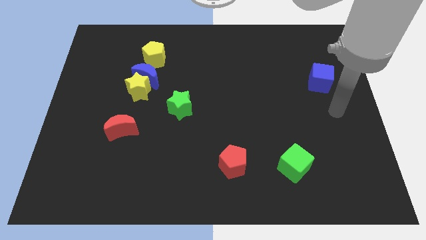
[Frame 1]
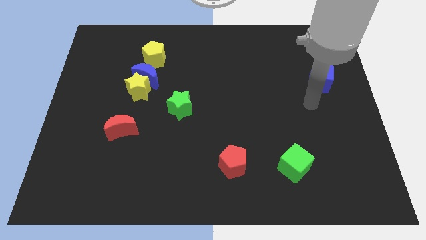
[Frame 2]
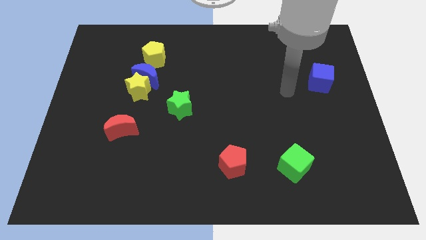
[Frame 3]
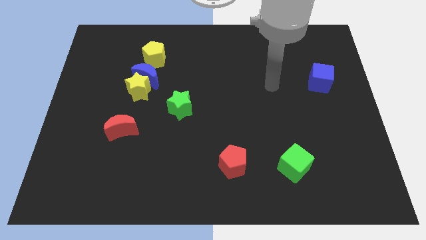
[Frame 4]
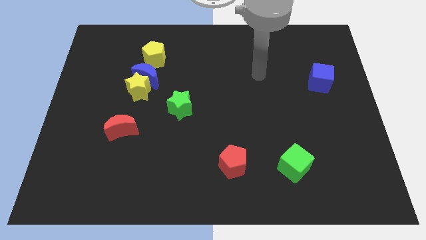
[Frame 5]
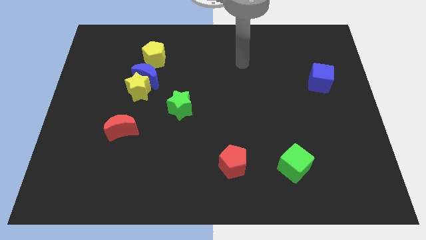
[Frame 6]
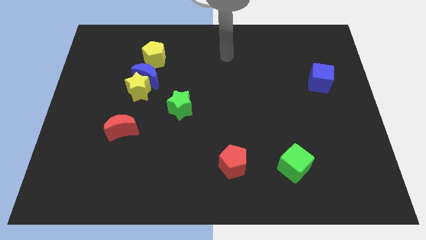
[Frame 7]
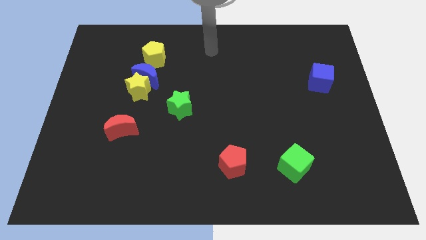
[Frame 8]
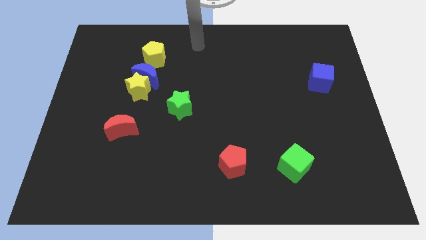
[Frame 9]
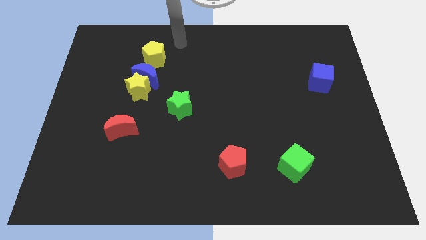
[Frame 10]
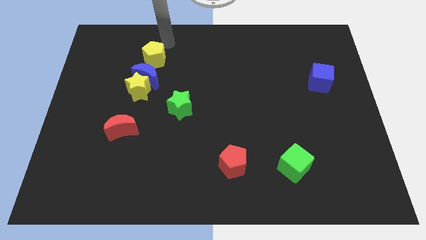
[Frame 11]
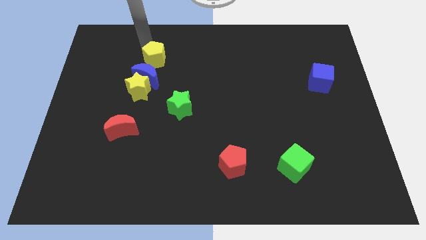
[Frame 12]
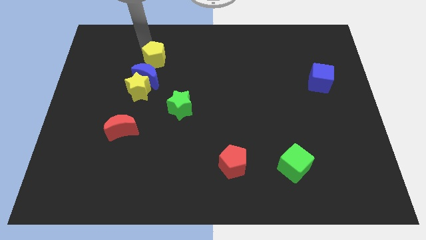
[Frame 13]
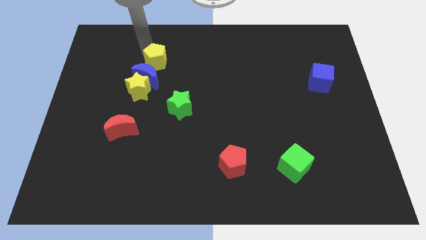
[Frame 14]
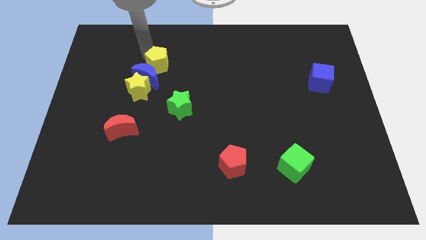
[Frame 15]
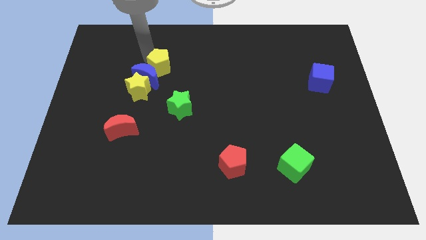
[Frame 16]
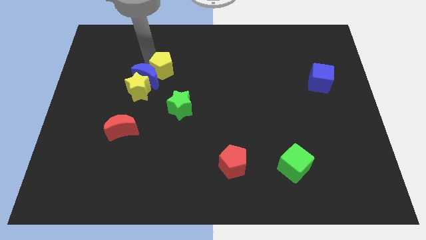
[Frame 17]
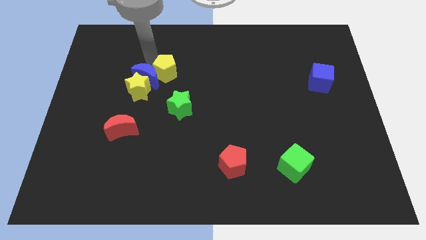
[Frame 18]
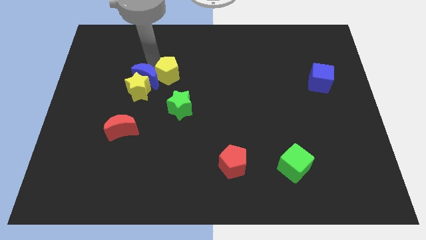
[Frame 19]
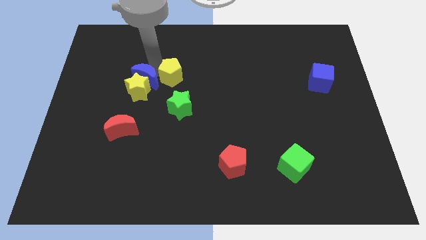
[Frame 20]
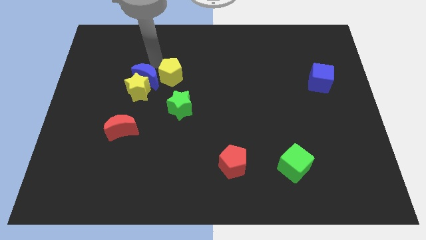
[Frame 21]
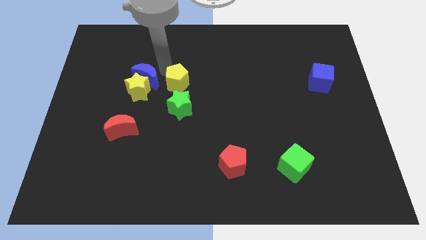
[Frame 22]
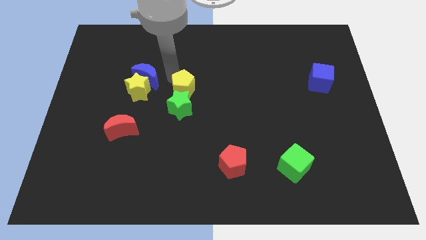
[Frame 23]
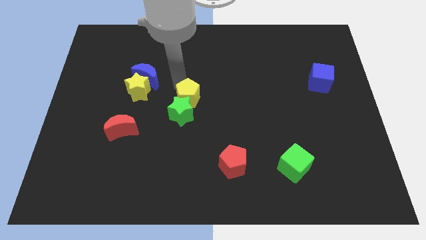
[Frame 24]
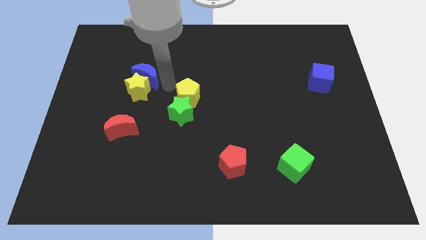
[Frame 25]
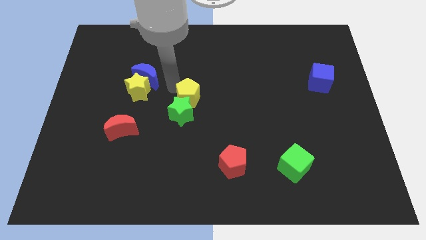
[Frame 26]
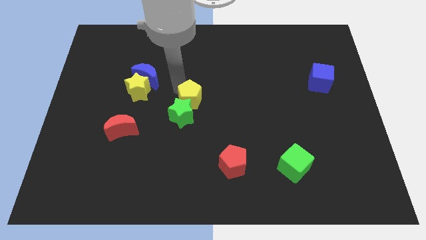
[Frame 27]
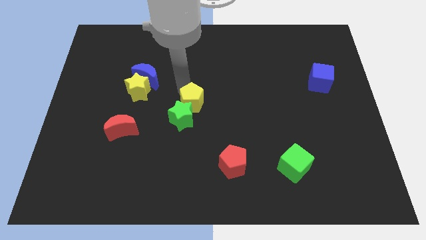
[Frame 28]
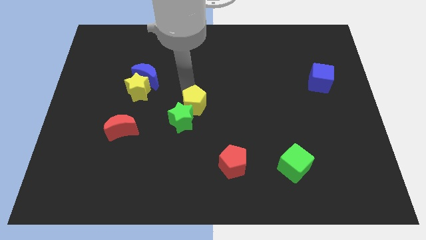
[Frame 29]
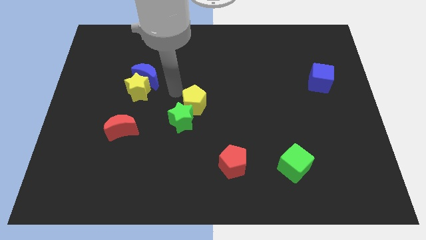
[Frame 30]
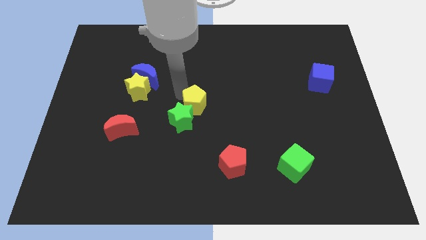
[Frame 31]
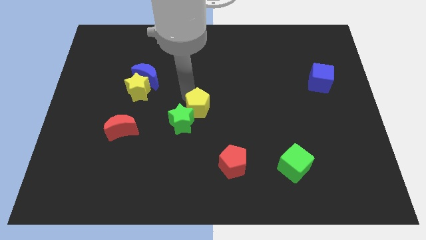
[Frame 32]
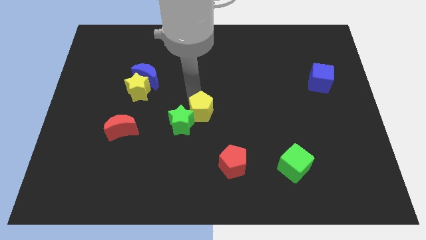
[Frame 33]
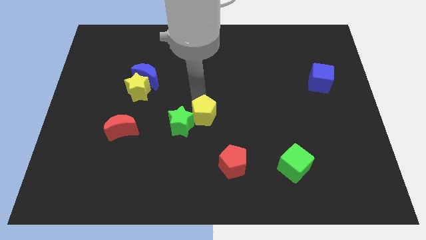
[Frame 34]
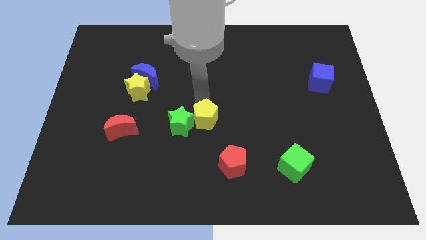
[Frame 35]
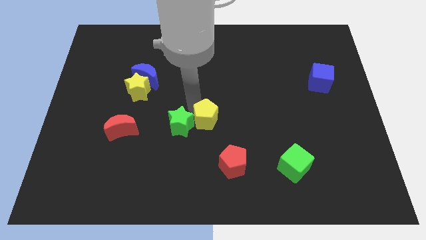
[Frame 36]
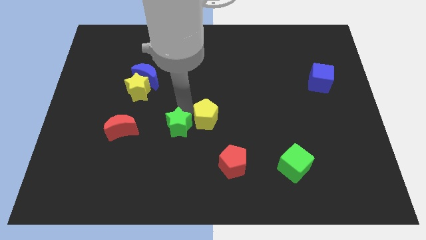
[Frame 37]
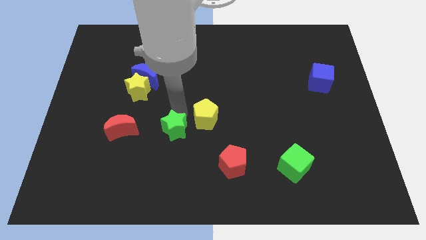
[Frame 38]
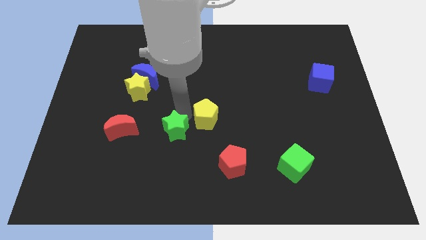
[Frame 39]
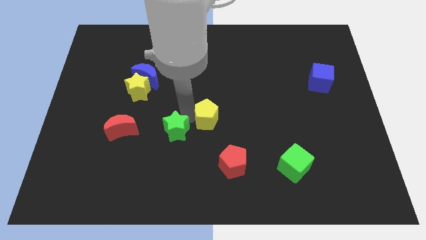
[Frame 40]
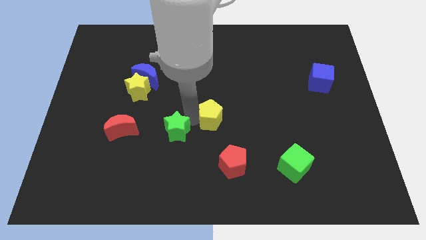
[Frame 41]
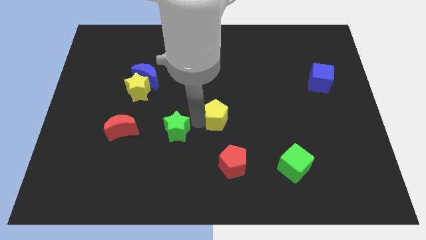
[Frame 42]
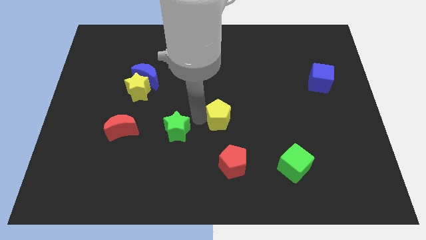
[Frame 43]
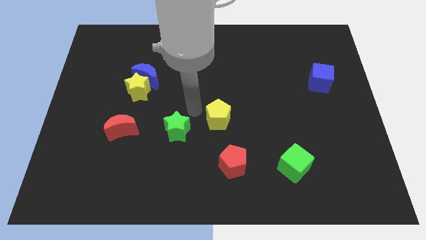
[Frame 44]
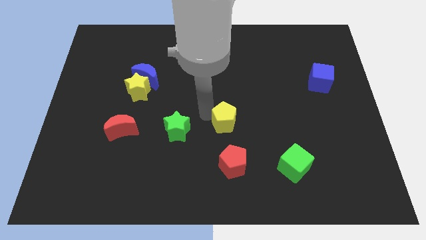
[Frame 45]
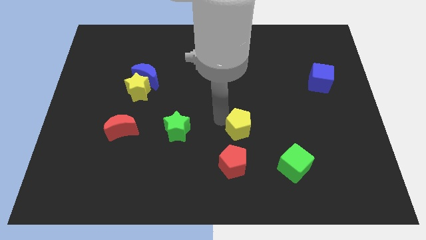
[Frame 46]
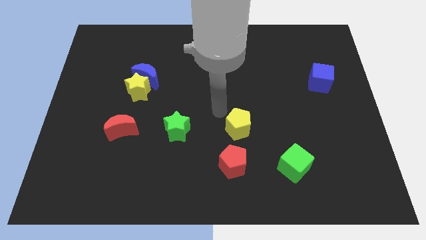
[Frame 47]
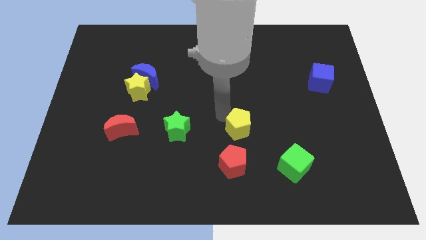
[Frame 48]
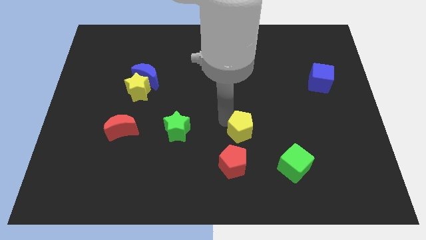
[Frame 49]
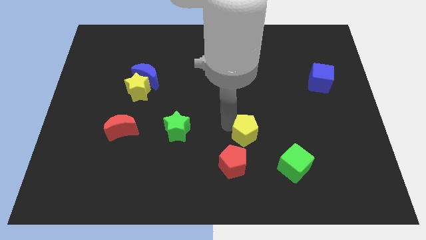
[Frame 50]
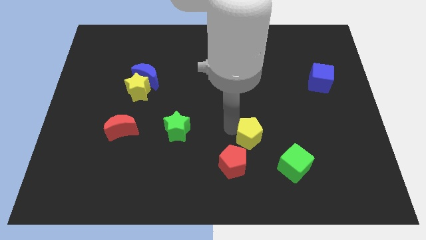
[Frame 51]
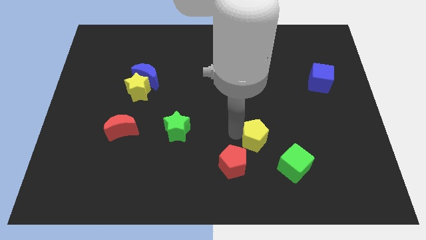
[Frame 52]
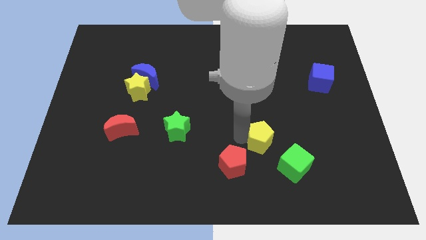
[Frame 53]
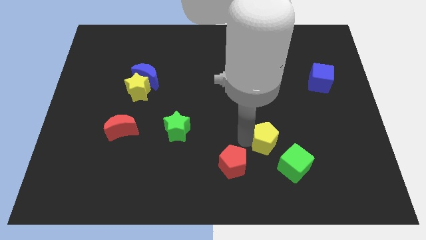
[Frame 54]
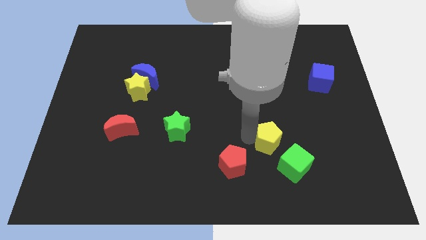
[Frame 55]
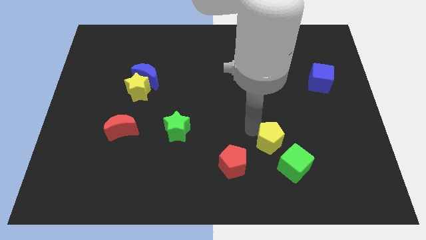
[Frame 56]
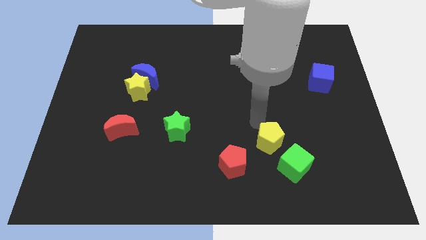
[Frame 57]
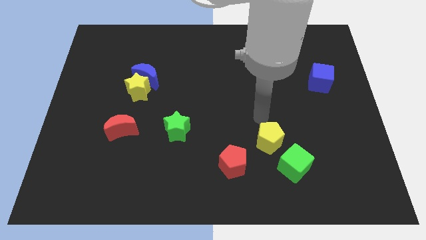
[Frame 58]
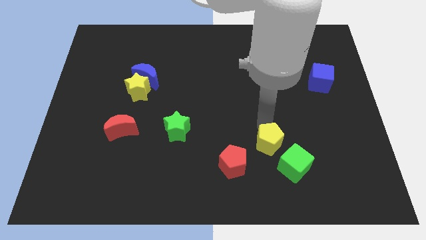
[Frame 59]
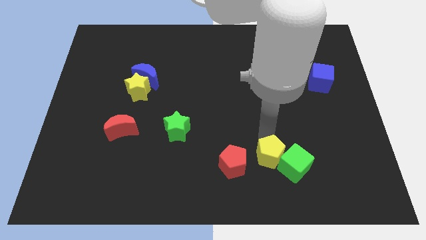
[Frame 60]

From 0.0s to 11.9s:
move the yellow pentagon next to the green cube

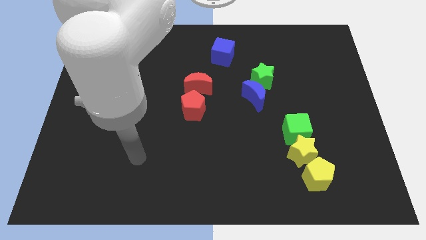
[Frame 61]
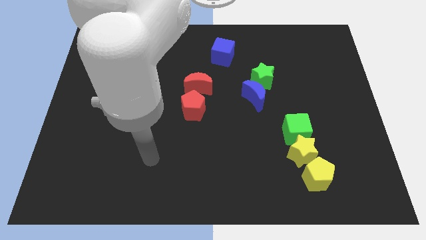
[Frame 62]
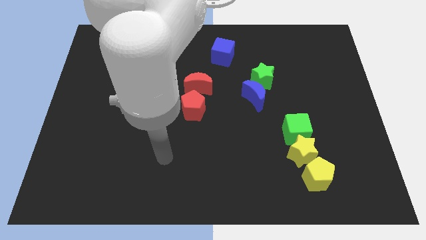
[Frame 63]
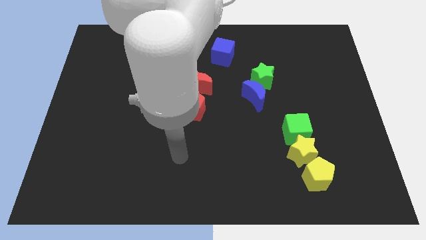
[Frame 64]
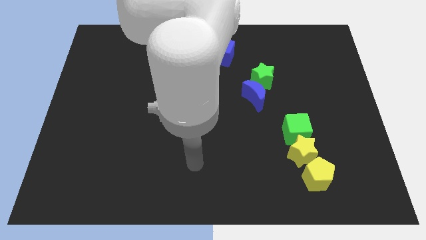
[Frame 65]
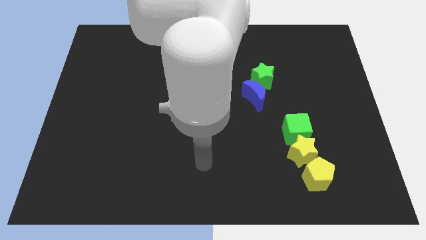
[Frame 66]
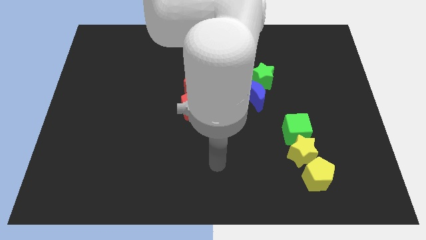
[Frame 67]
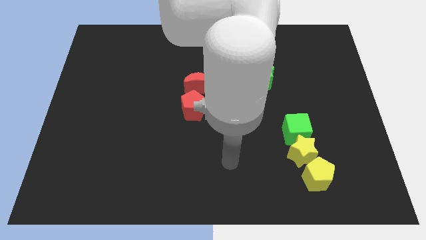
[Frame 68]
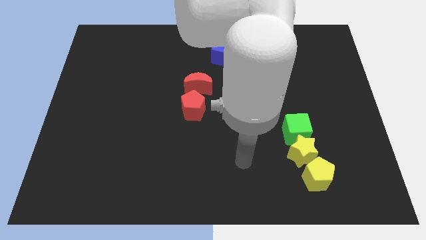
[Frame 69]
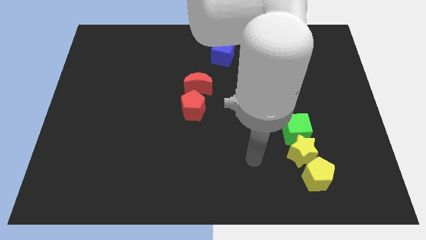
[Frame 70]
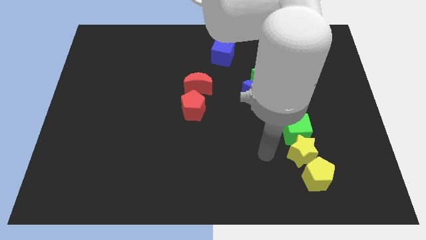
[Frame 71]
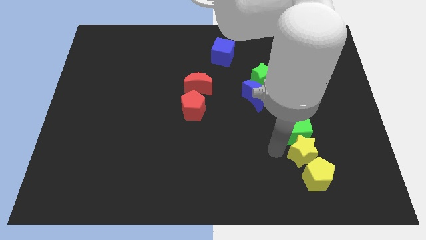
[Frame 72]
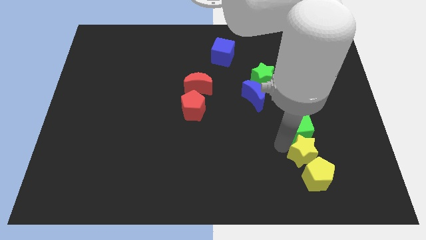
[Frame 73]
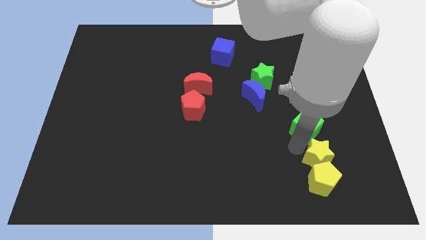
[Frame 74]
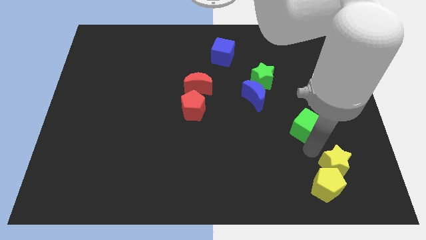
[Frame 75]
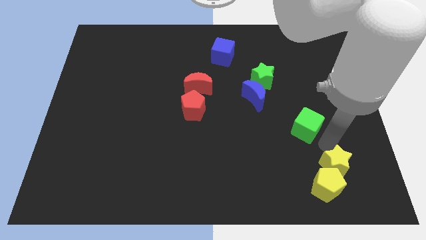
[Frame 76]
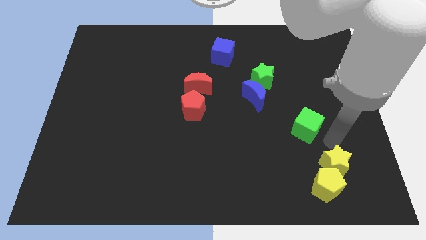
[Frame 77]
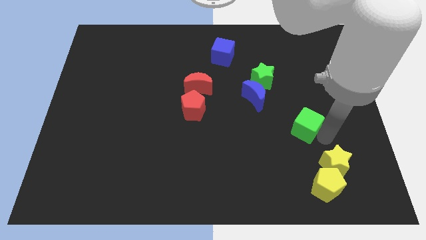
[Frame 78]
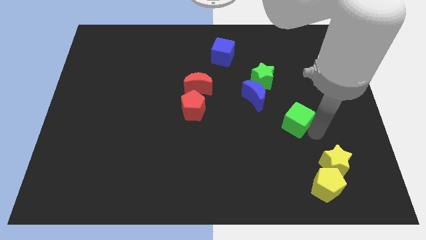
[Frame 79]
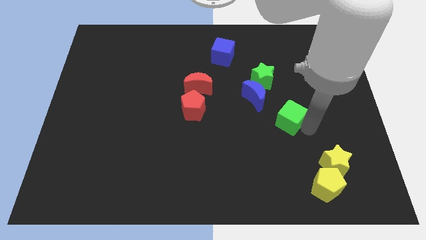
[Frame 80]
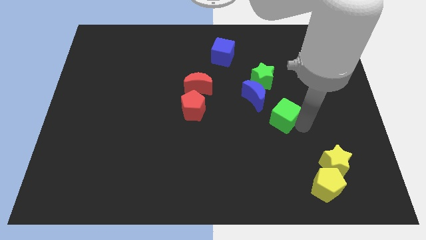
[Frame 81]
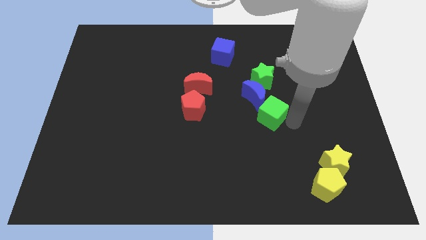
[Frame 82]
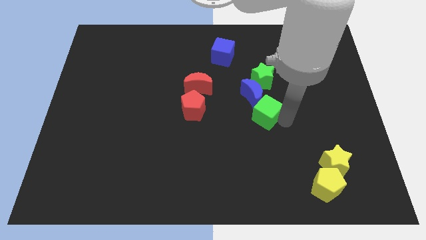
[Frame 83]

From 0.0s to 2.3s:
push the green cube towards the blue moon
